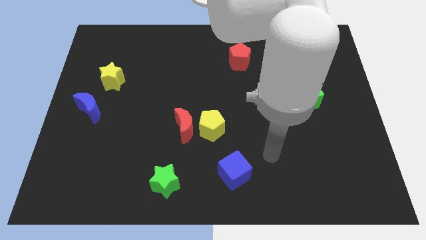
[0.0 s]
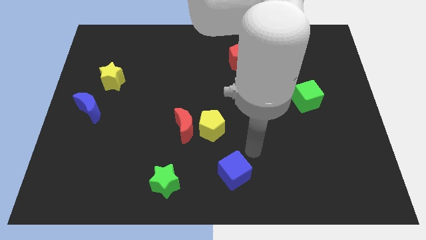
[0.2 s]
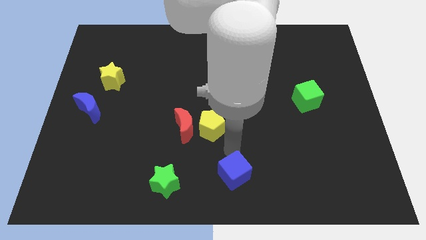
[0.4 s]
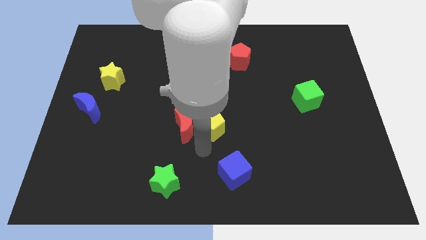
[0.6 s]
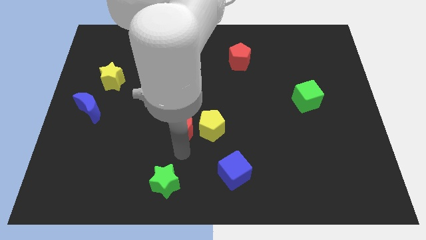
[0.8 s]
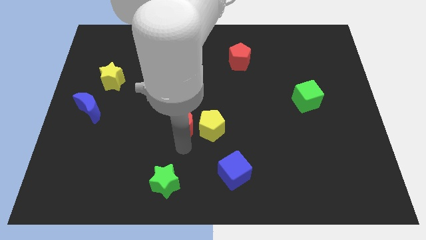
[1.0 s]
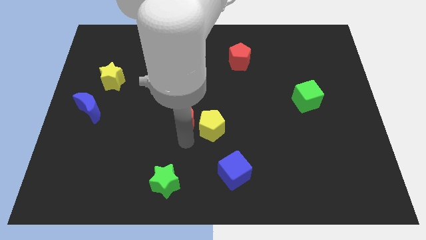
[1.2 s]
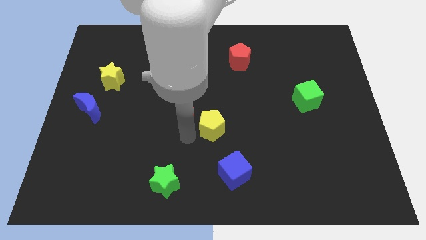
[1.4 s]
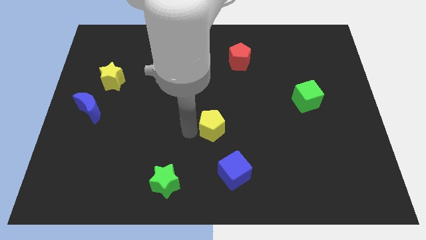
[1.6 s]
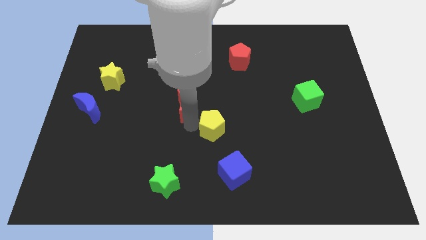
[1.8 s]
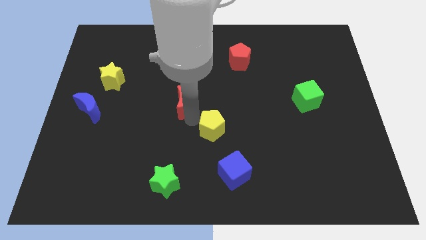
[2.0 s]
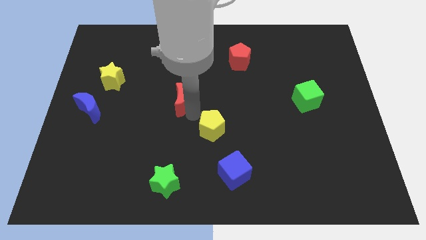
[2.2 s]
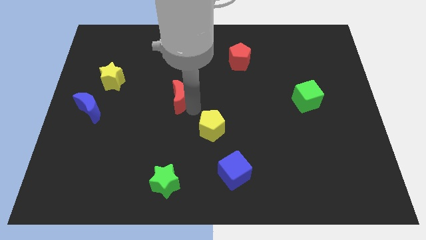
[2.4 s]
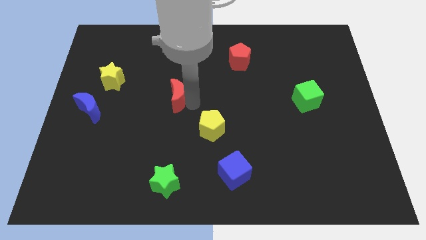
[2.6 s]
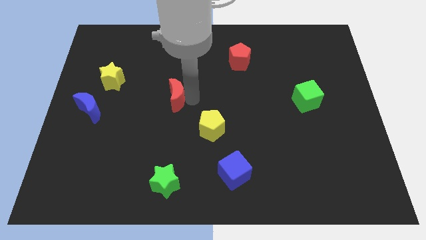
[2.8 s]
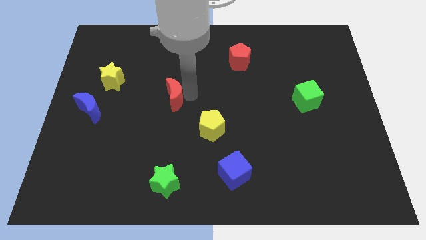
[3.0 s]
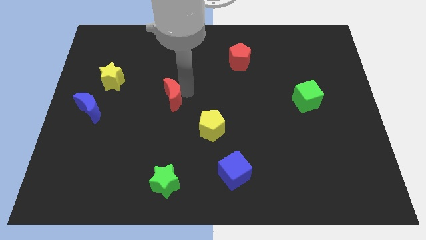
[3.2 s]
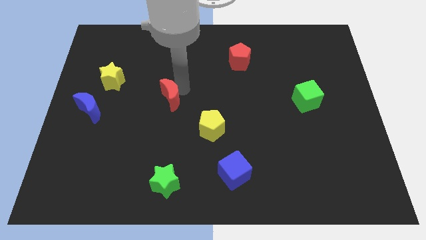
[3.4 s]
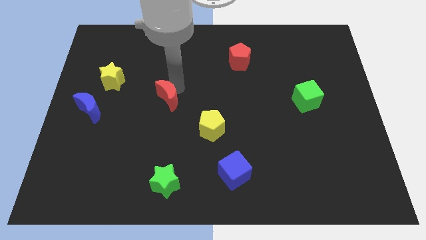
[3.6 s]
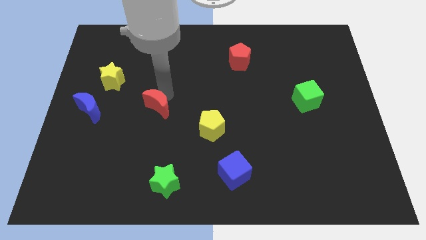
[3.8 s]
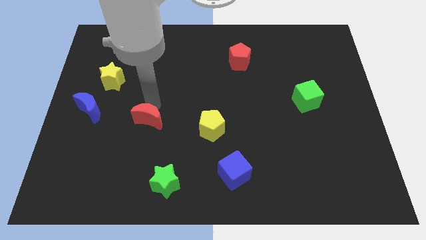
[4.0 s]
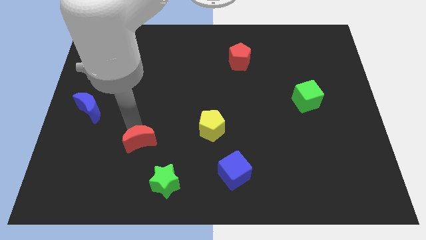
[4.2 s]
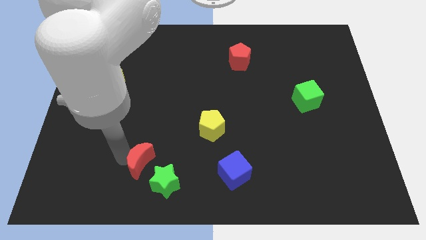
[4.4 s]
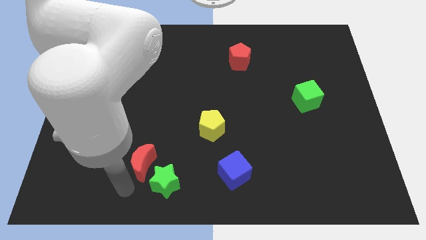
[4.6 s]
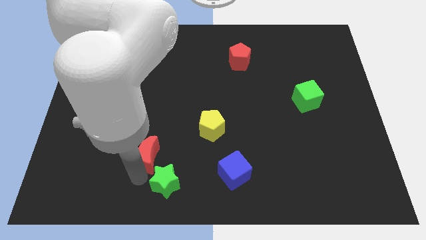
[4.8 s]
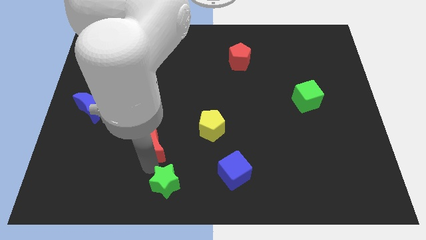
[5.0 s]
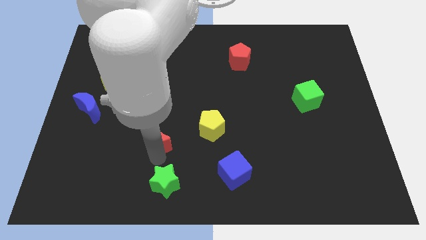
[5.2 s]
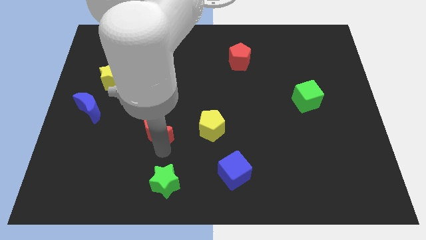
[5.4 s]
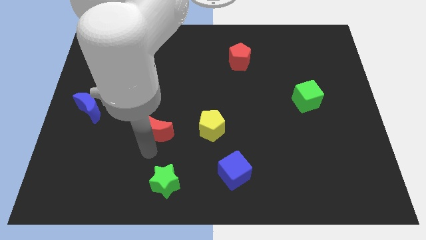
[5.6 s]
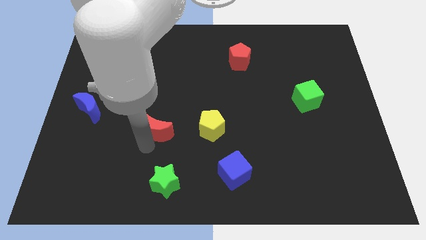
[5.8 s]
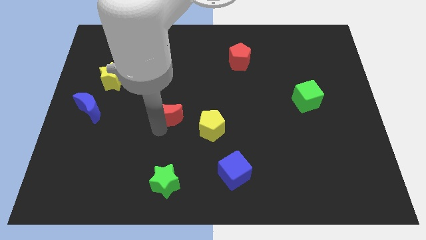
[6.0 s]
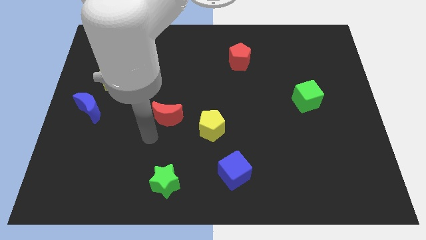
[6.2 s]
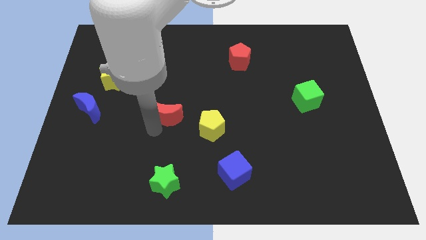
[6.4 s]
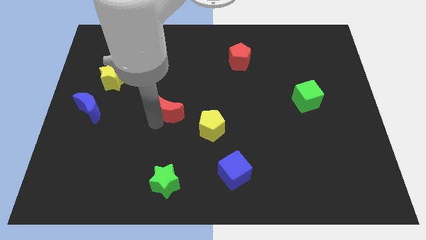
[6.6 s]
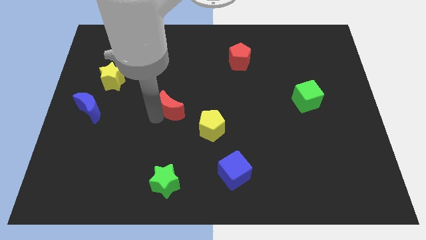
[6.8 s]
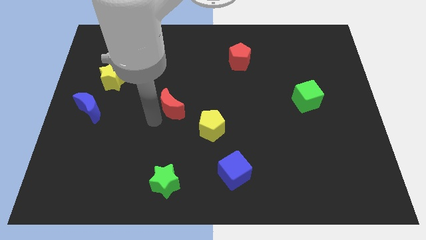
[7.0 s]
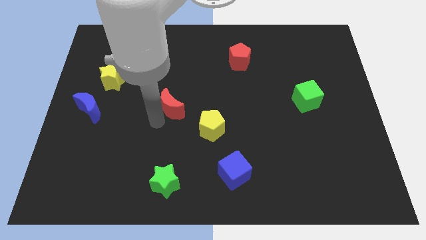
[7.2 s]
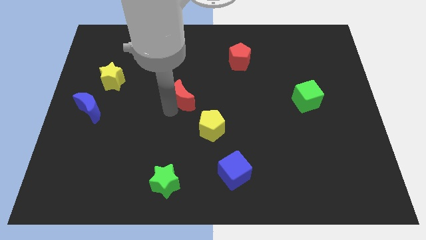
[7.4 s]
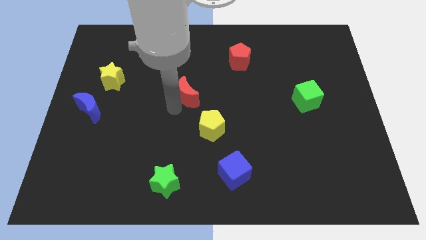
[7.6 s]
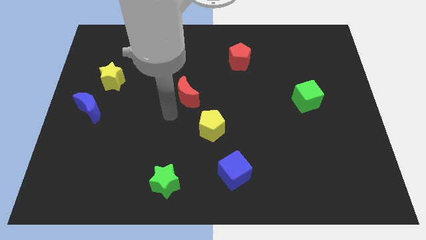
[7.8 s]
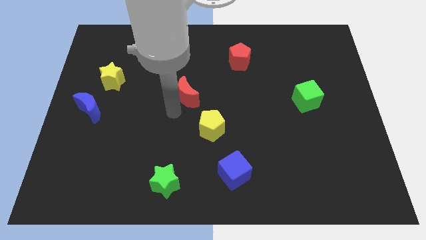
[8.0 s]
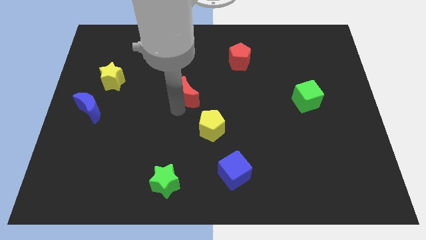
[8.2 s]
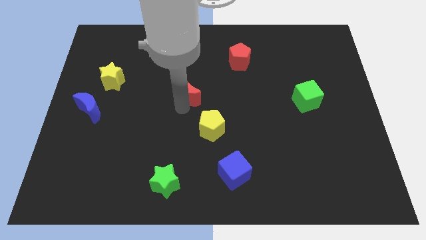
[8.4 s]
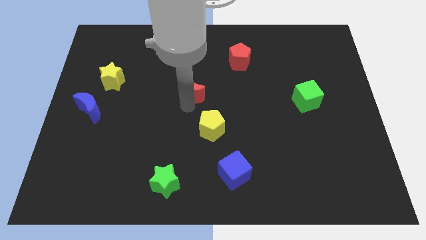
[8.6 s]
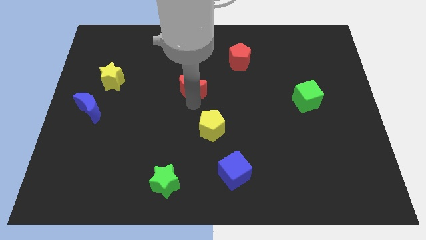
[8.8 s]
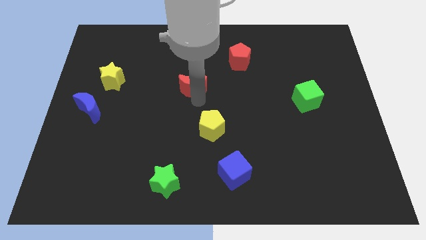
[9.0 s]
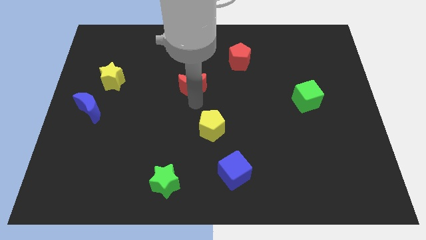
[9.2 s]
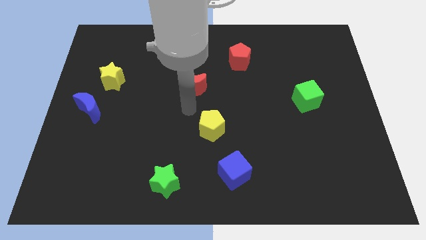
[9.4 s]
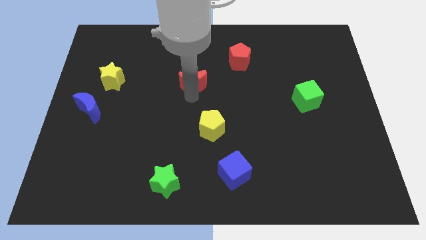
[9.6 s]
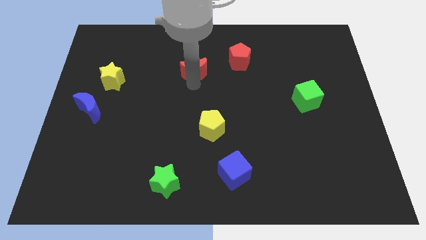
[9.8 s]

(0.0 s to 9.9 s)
move the red moon left of the red pentagon

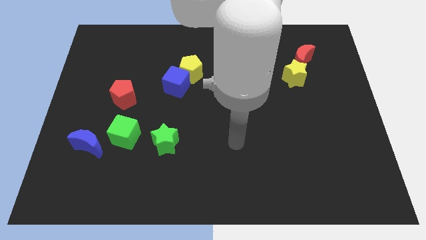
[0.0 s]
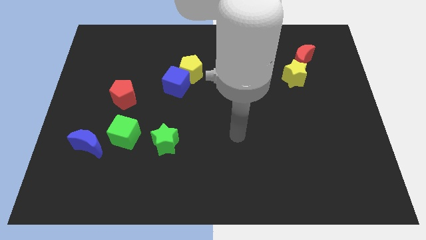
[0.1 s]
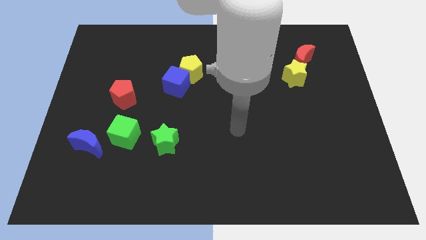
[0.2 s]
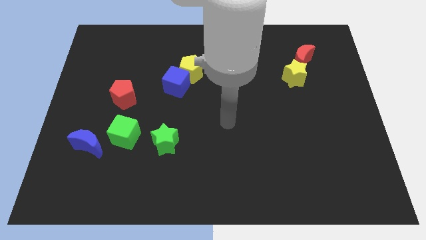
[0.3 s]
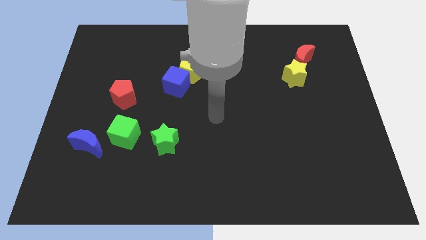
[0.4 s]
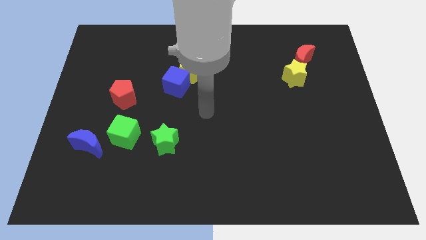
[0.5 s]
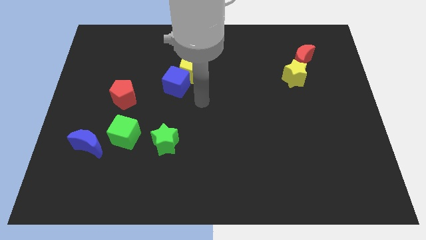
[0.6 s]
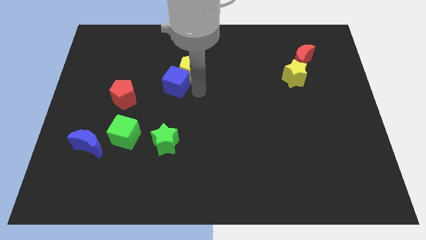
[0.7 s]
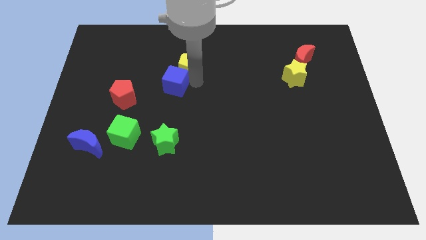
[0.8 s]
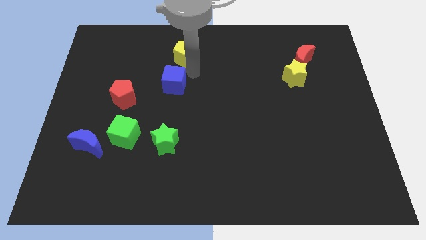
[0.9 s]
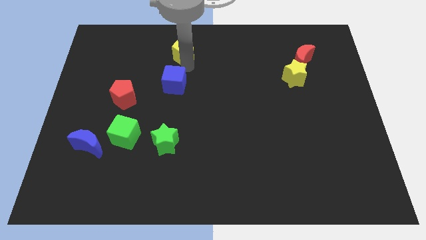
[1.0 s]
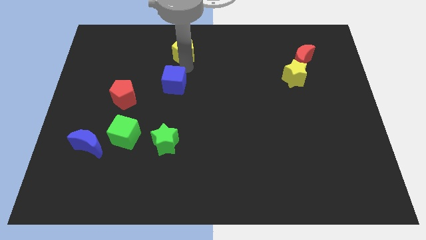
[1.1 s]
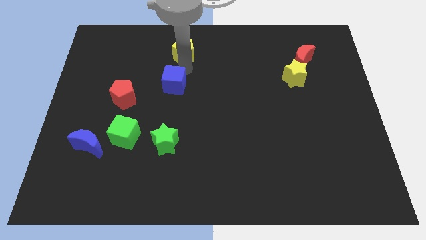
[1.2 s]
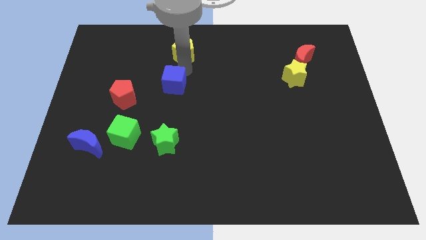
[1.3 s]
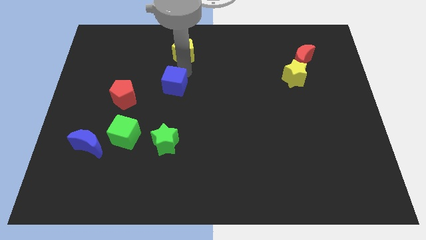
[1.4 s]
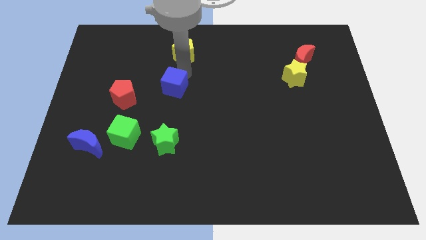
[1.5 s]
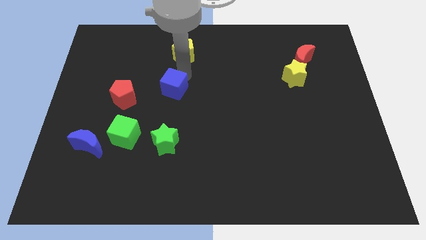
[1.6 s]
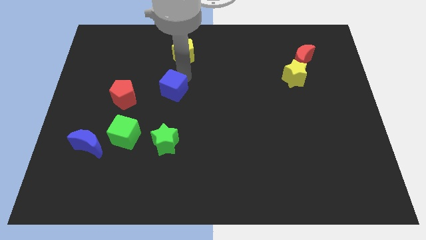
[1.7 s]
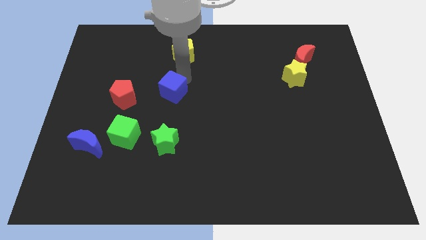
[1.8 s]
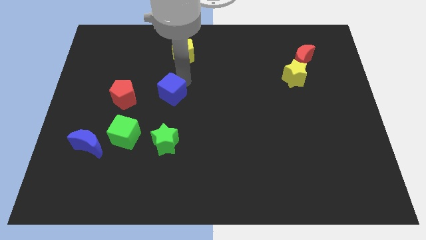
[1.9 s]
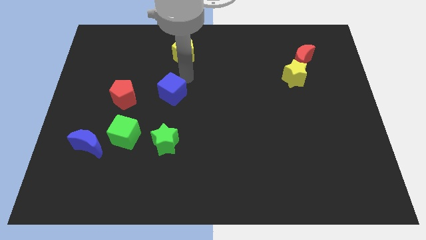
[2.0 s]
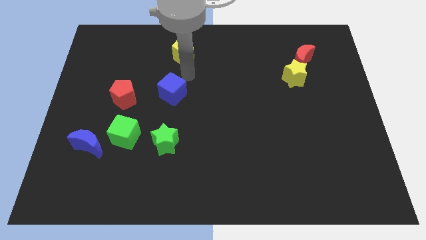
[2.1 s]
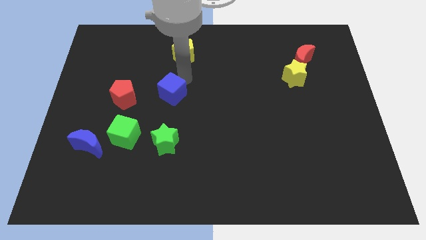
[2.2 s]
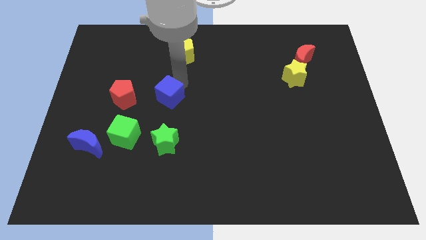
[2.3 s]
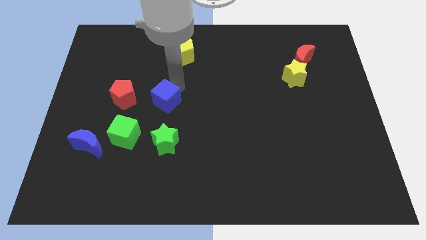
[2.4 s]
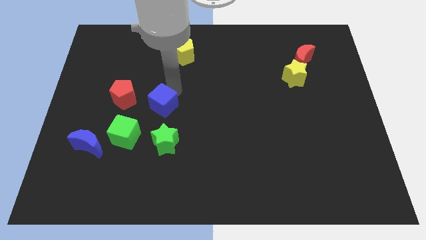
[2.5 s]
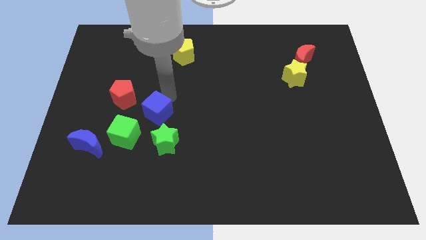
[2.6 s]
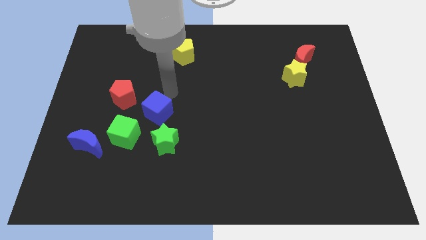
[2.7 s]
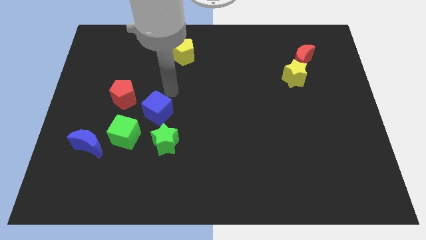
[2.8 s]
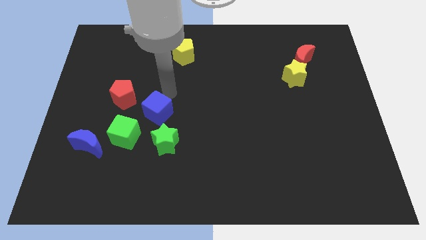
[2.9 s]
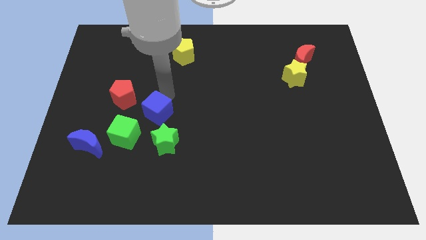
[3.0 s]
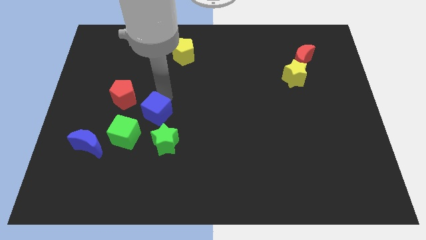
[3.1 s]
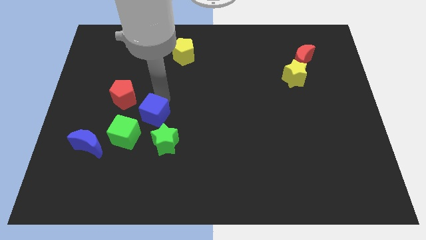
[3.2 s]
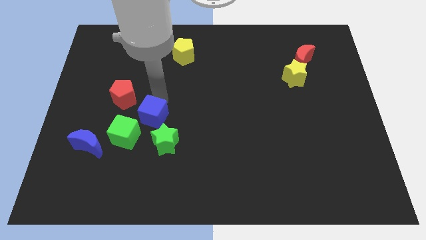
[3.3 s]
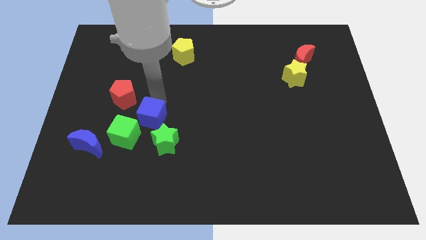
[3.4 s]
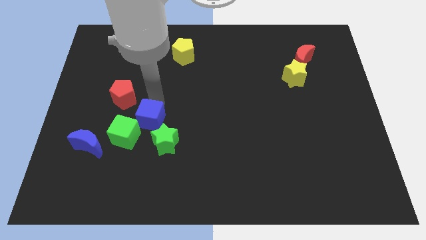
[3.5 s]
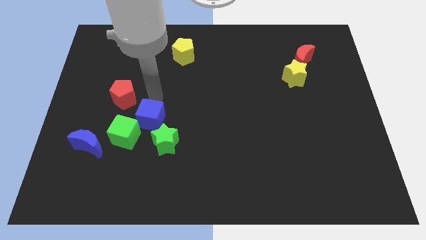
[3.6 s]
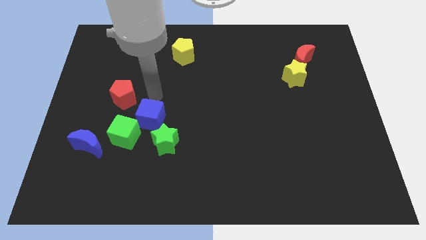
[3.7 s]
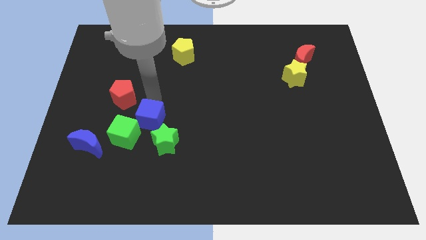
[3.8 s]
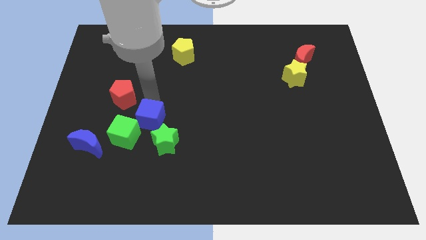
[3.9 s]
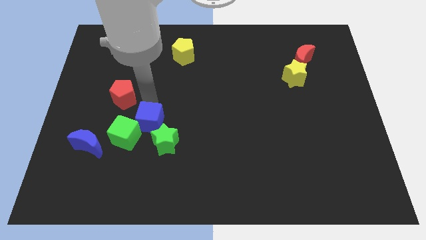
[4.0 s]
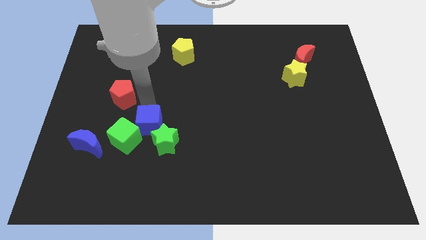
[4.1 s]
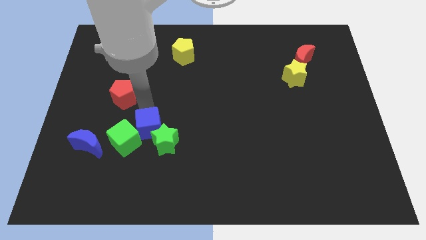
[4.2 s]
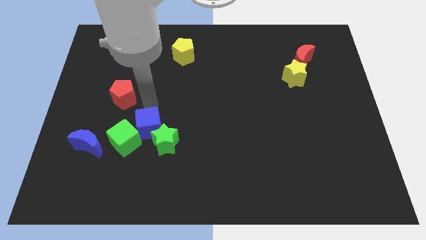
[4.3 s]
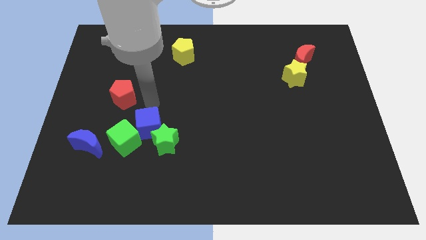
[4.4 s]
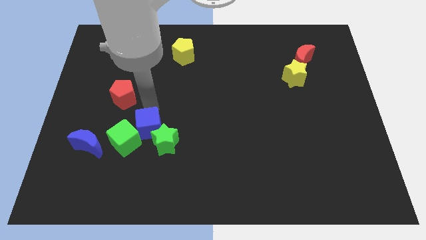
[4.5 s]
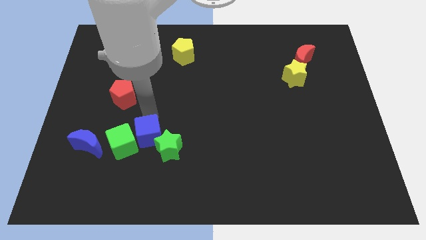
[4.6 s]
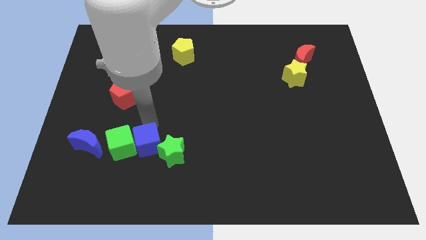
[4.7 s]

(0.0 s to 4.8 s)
push the blue cube diagonally down and to the right of the green cube
